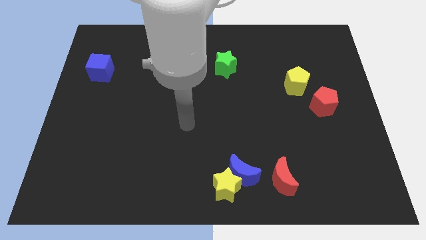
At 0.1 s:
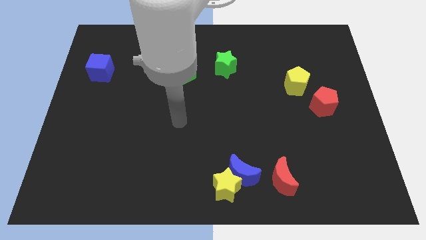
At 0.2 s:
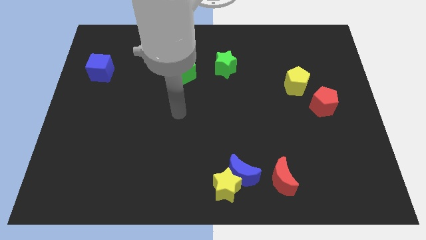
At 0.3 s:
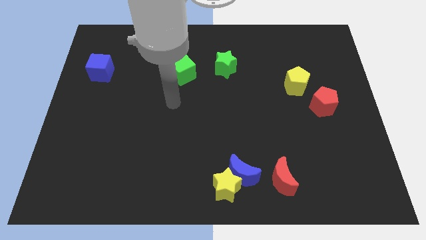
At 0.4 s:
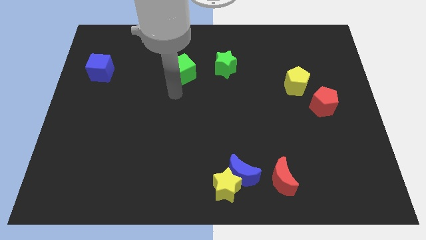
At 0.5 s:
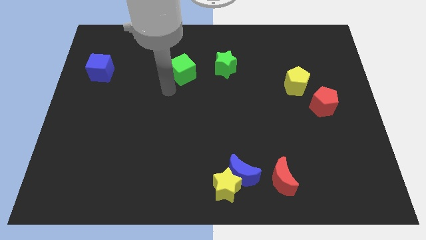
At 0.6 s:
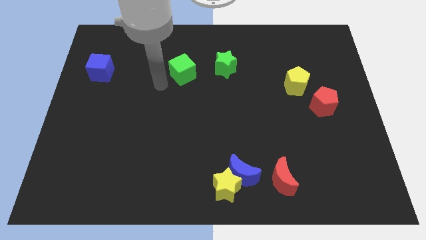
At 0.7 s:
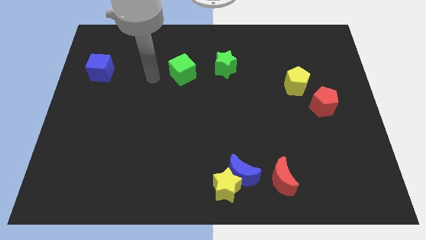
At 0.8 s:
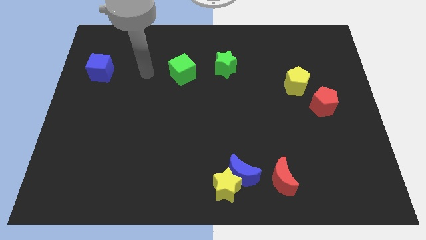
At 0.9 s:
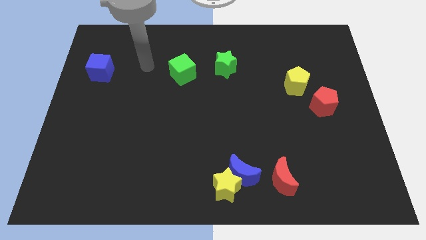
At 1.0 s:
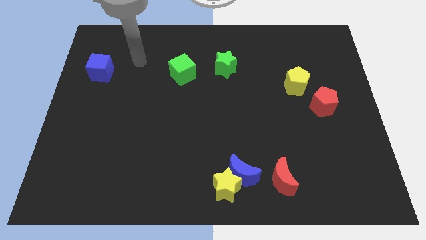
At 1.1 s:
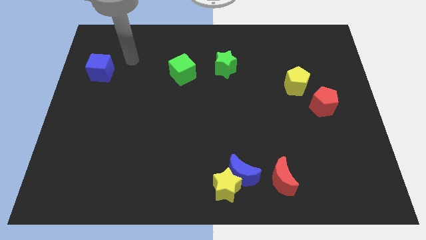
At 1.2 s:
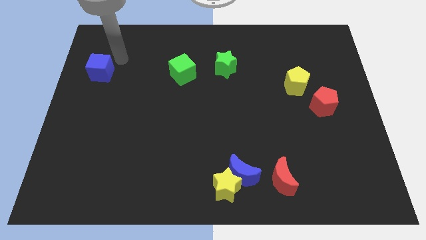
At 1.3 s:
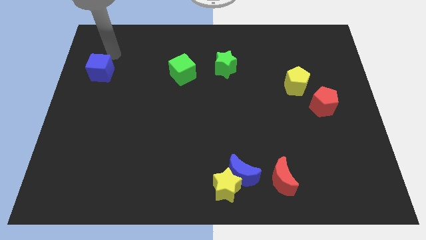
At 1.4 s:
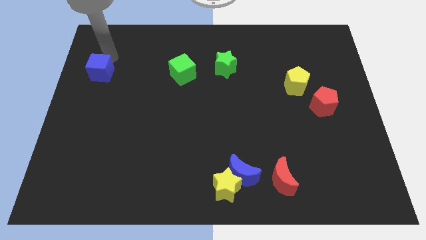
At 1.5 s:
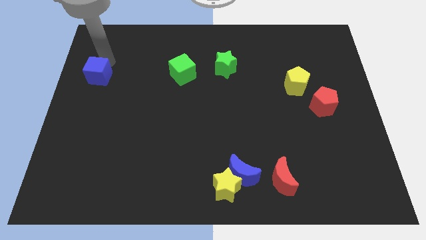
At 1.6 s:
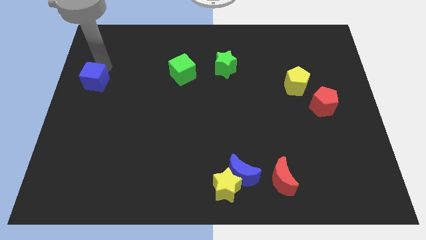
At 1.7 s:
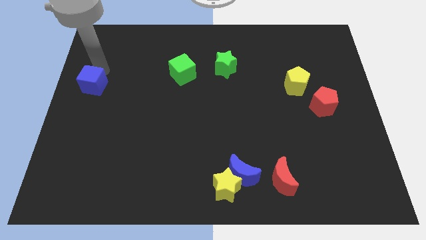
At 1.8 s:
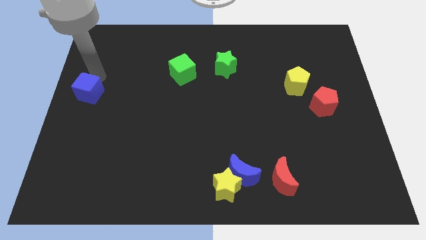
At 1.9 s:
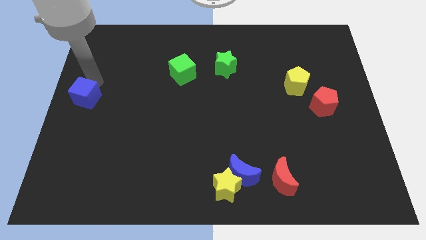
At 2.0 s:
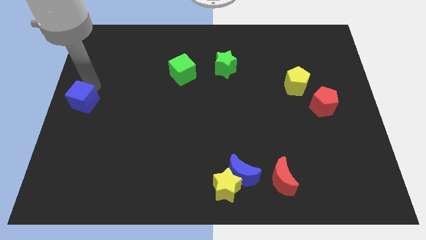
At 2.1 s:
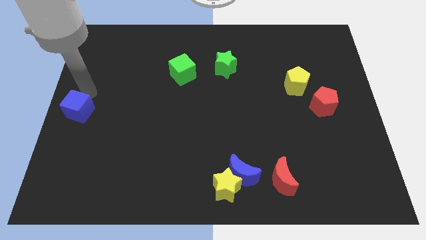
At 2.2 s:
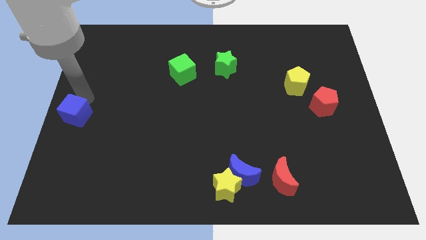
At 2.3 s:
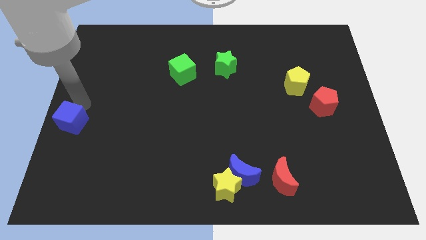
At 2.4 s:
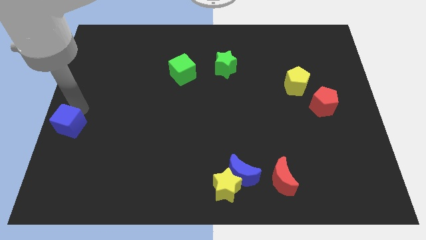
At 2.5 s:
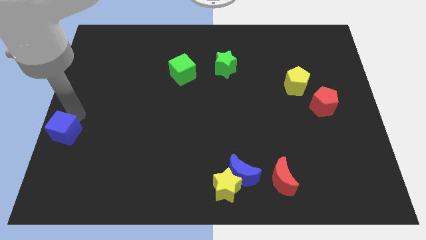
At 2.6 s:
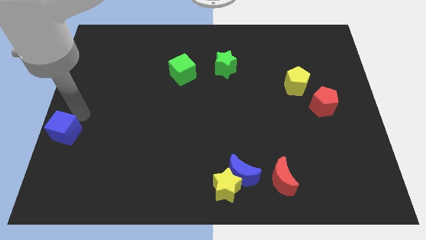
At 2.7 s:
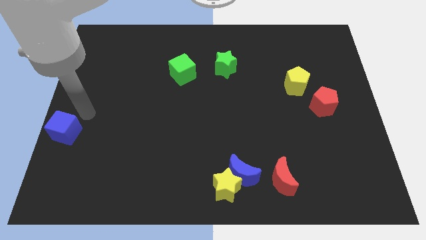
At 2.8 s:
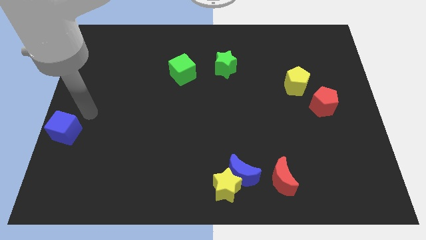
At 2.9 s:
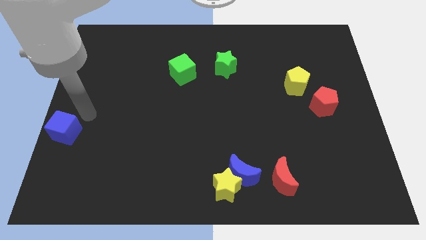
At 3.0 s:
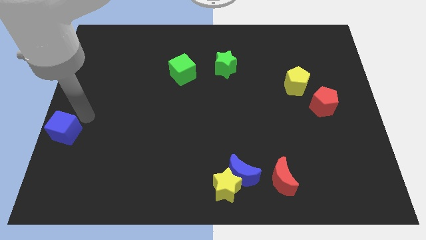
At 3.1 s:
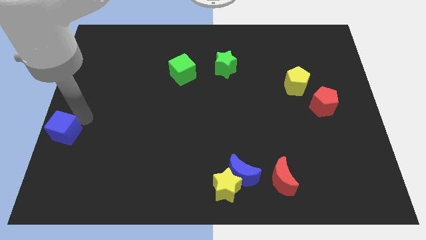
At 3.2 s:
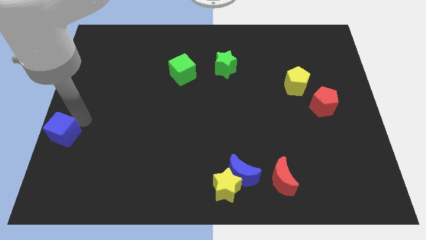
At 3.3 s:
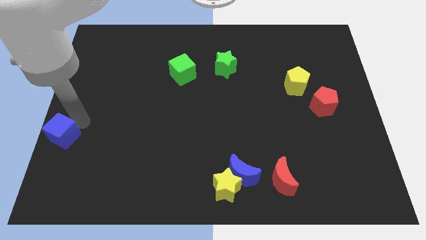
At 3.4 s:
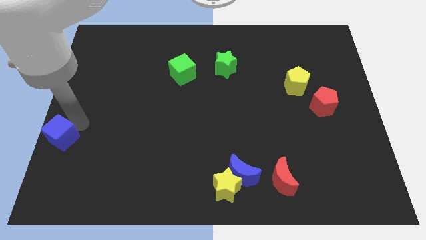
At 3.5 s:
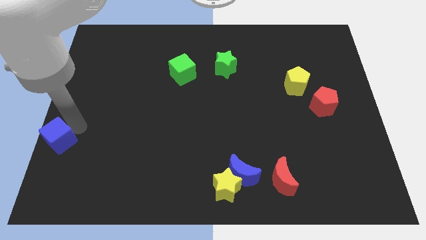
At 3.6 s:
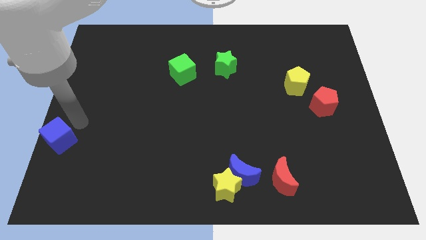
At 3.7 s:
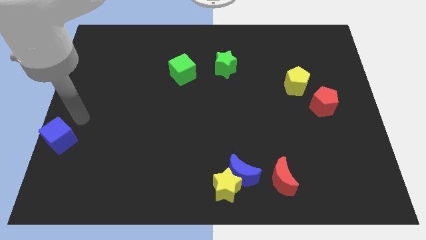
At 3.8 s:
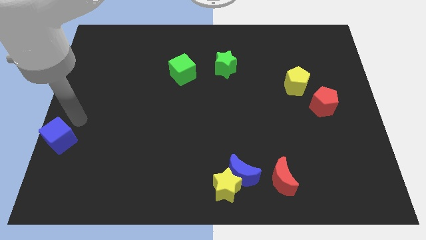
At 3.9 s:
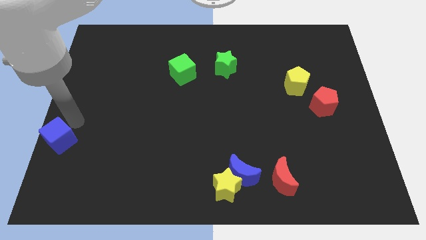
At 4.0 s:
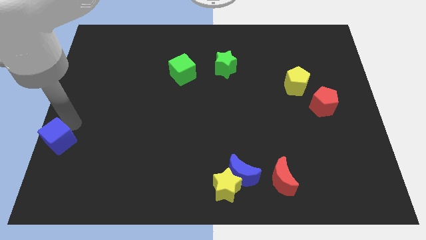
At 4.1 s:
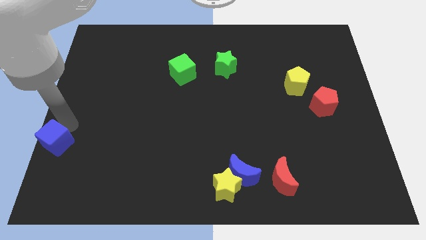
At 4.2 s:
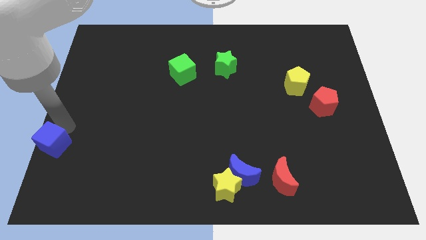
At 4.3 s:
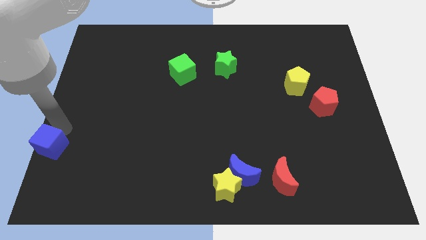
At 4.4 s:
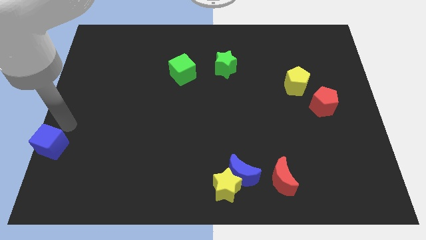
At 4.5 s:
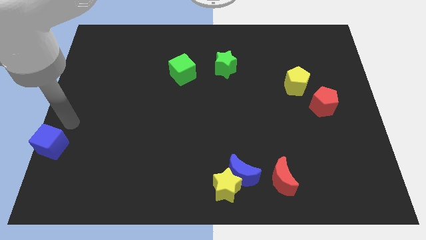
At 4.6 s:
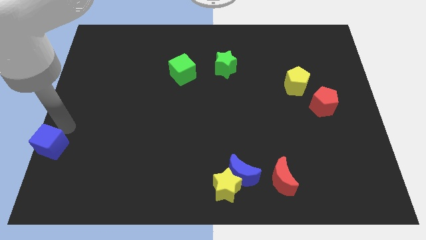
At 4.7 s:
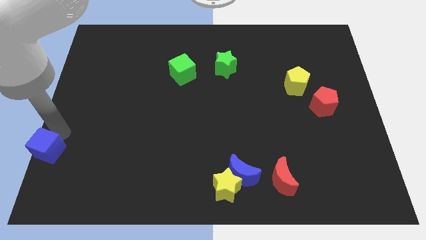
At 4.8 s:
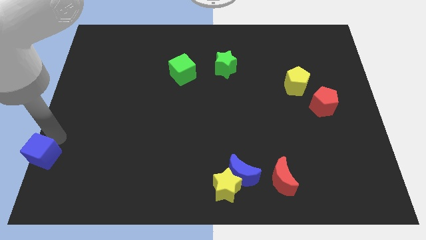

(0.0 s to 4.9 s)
push the blue cube to the bottom left corner

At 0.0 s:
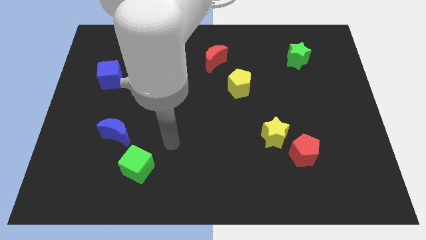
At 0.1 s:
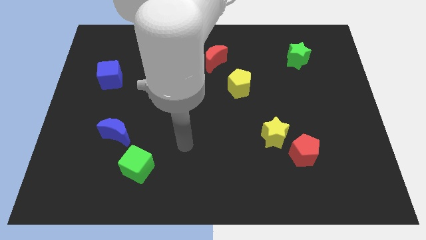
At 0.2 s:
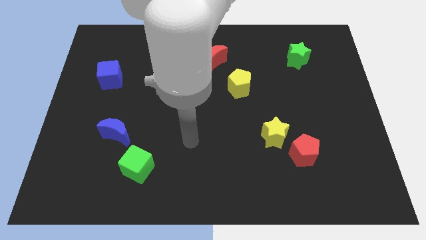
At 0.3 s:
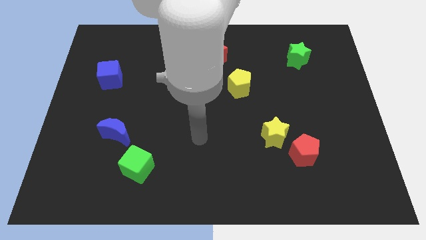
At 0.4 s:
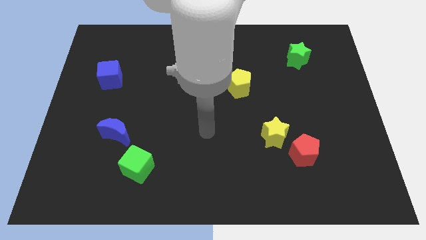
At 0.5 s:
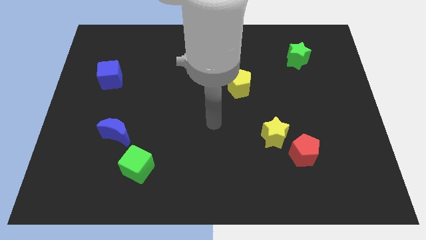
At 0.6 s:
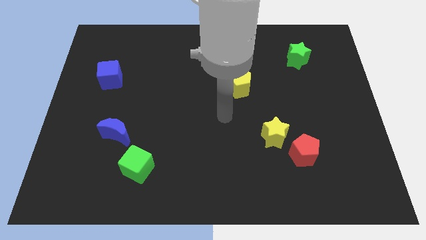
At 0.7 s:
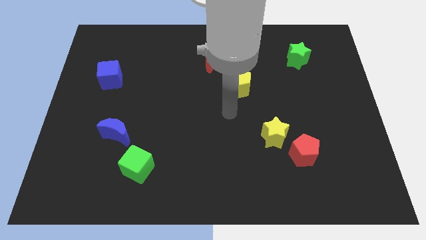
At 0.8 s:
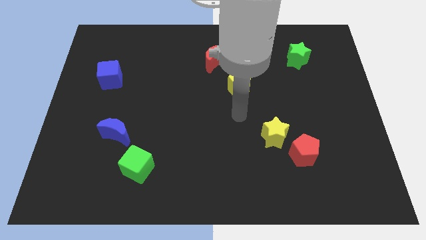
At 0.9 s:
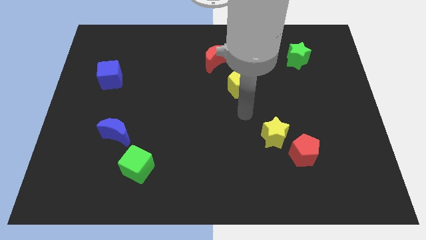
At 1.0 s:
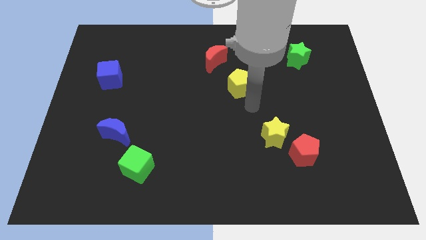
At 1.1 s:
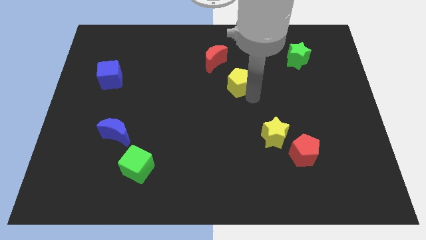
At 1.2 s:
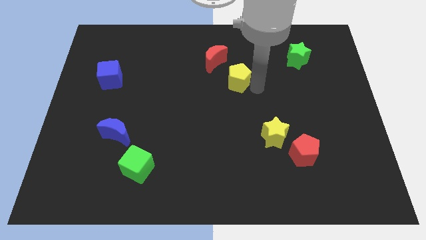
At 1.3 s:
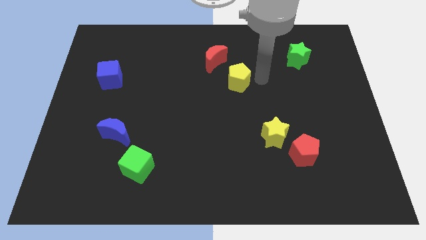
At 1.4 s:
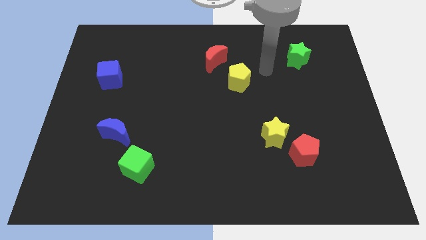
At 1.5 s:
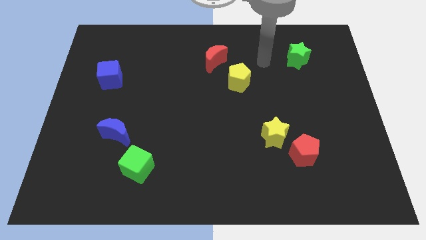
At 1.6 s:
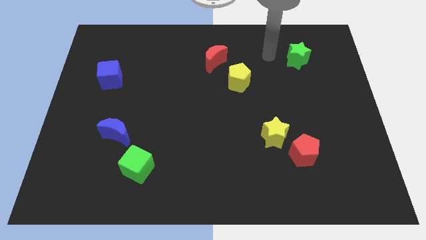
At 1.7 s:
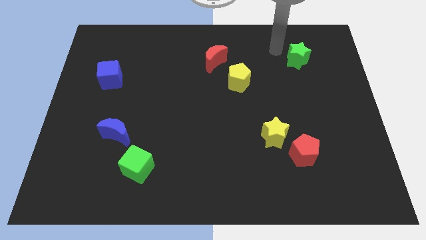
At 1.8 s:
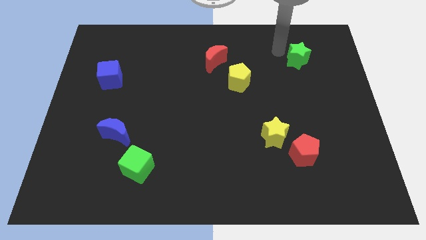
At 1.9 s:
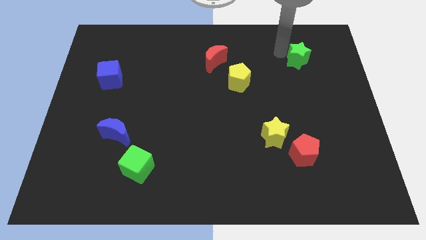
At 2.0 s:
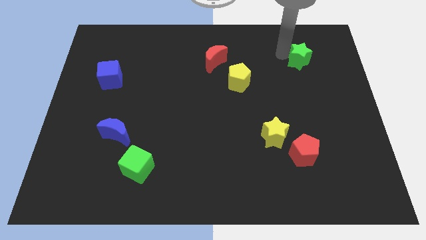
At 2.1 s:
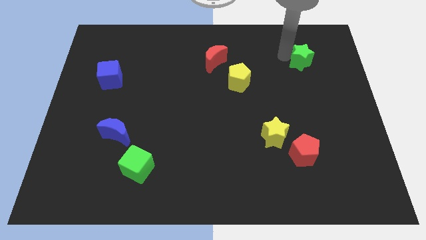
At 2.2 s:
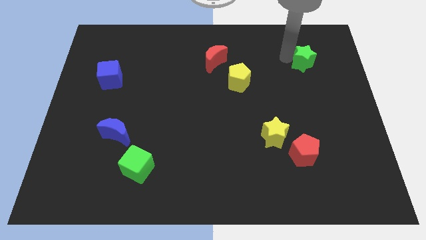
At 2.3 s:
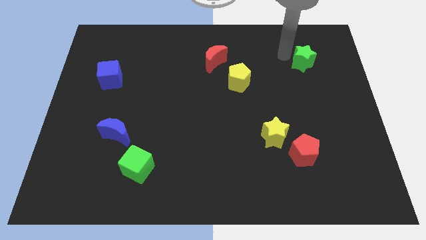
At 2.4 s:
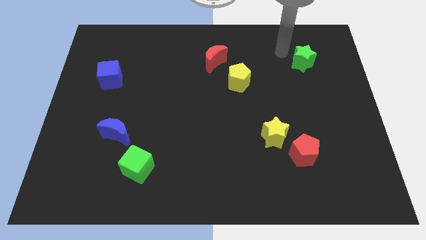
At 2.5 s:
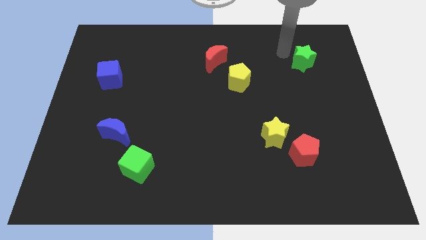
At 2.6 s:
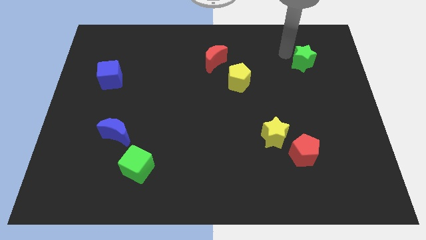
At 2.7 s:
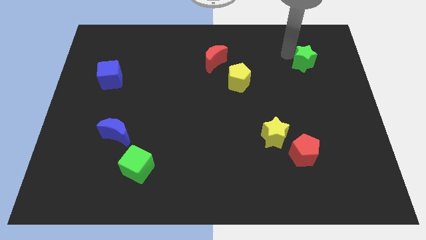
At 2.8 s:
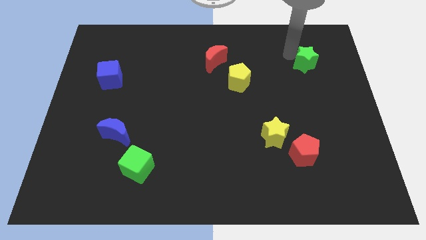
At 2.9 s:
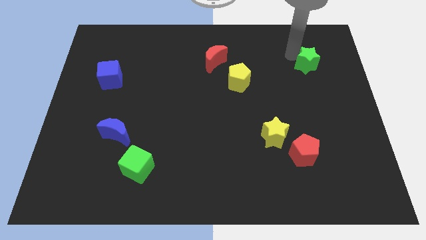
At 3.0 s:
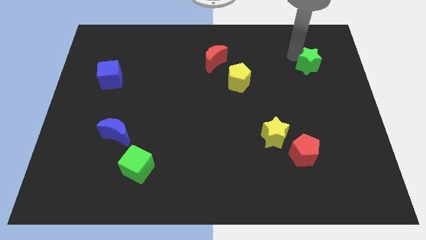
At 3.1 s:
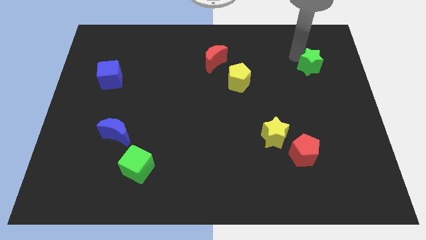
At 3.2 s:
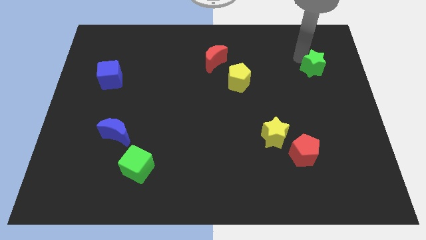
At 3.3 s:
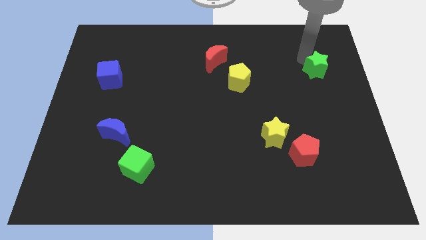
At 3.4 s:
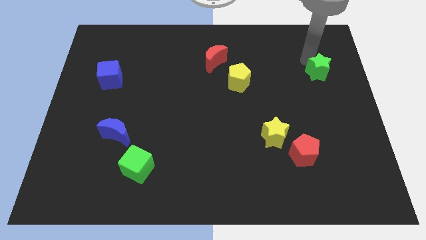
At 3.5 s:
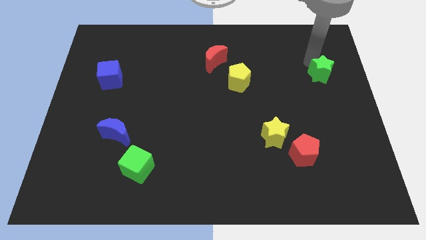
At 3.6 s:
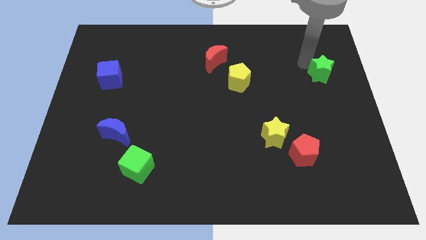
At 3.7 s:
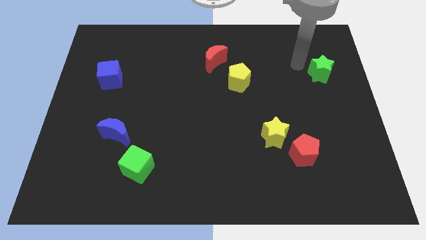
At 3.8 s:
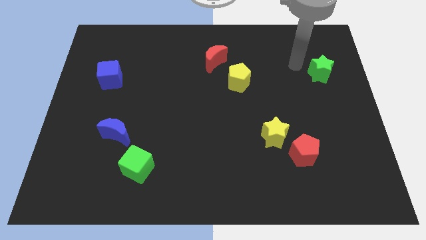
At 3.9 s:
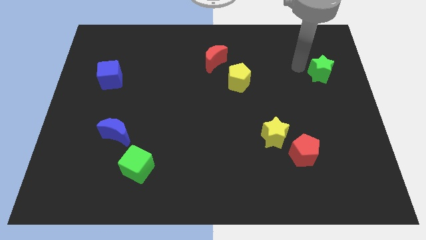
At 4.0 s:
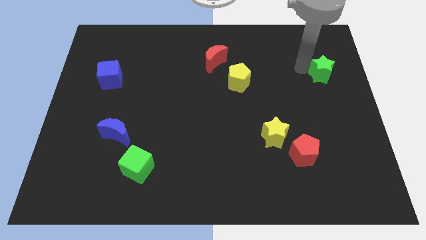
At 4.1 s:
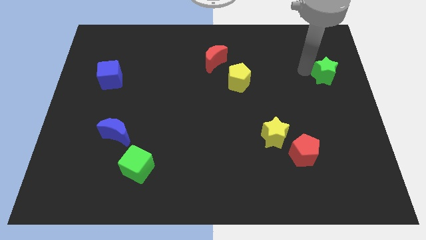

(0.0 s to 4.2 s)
put the green star to the center right
